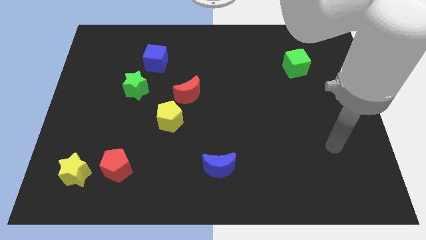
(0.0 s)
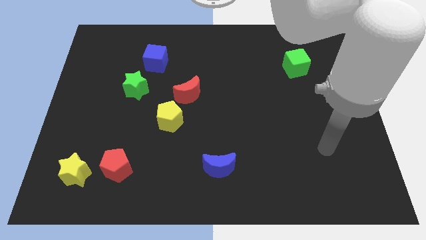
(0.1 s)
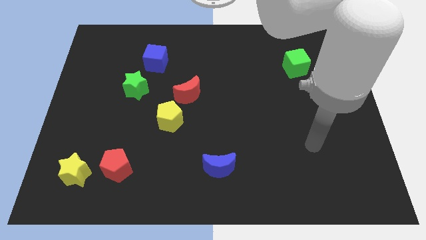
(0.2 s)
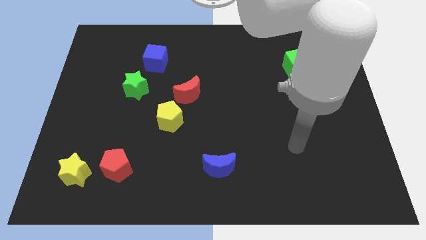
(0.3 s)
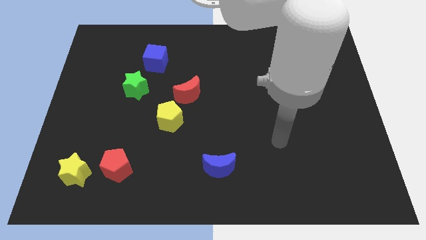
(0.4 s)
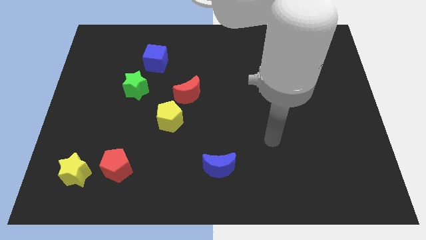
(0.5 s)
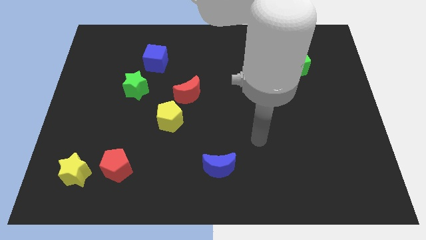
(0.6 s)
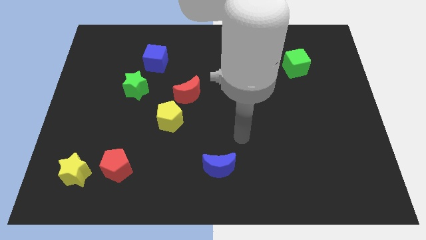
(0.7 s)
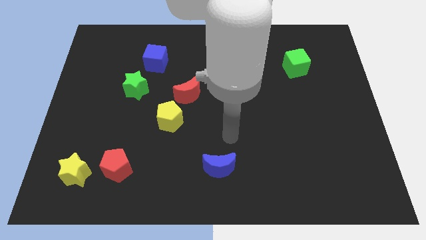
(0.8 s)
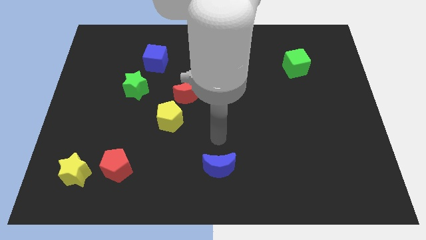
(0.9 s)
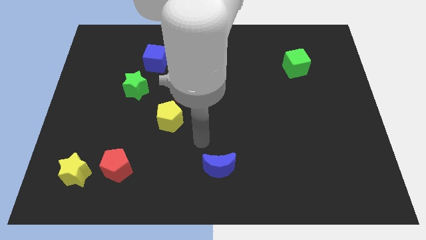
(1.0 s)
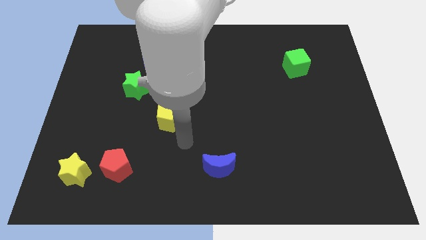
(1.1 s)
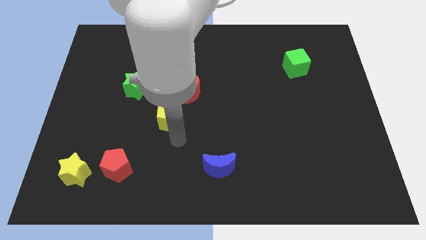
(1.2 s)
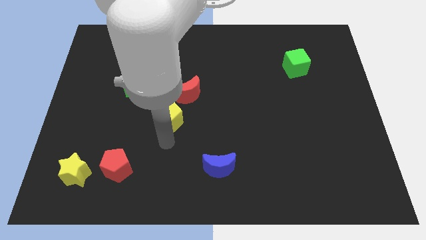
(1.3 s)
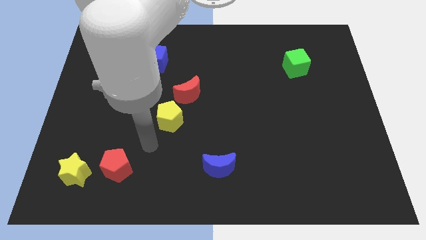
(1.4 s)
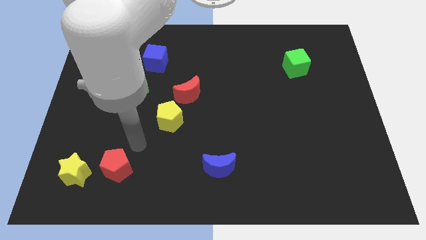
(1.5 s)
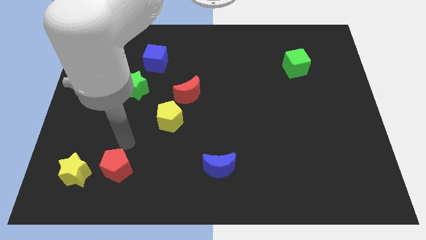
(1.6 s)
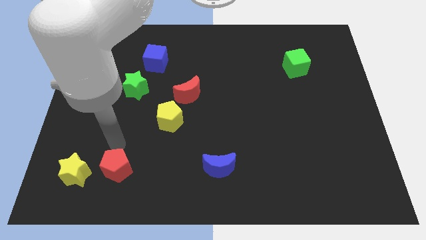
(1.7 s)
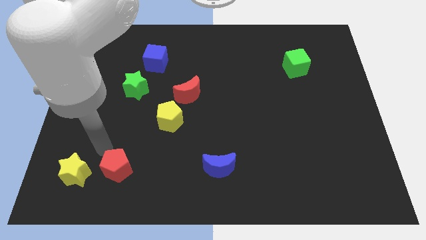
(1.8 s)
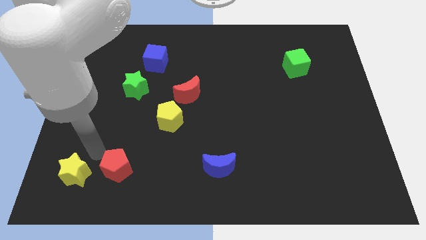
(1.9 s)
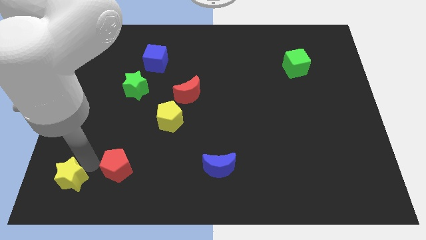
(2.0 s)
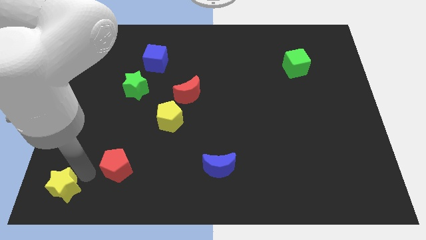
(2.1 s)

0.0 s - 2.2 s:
move the red pentagon away from the yellow star

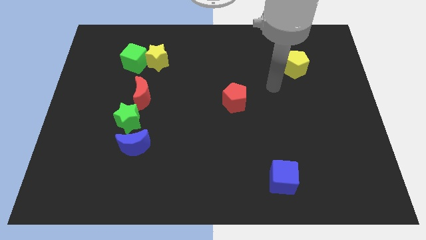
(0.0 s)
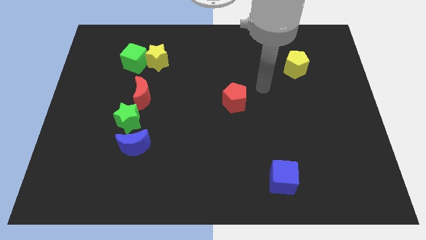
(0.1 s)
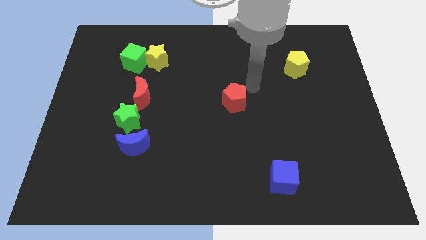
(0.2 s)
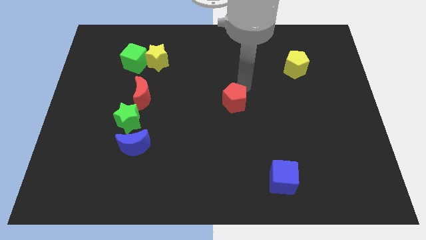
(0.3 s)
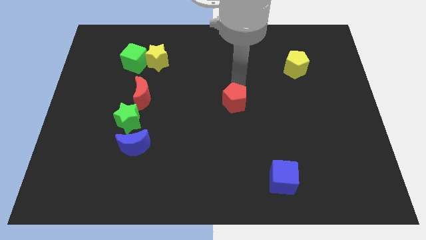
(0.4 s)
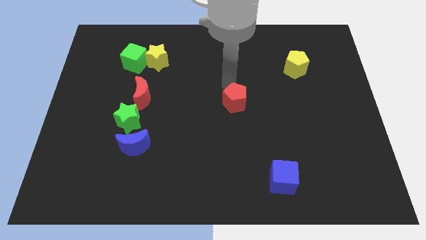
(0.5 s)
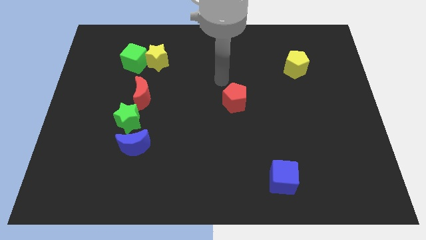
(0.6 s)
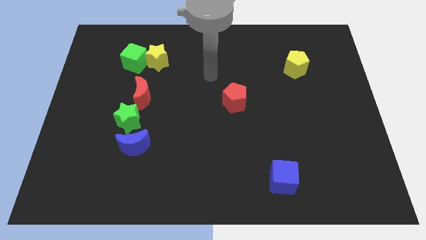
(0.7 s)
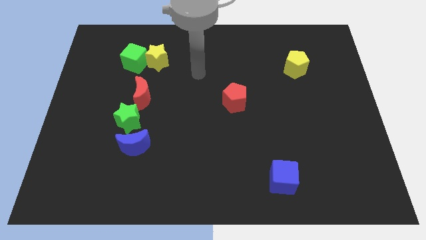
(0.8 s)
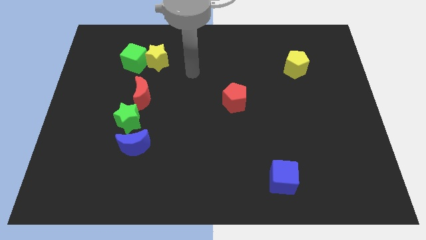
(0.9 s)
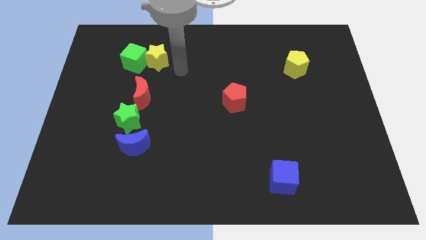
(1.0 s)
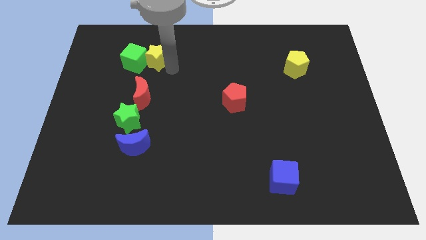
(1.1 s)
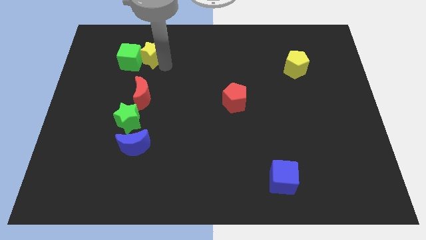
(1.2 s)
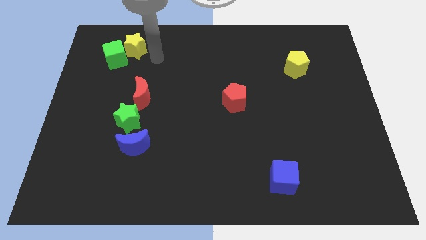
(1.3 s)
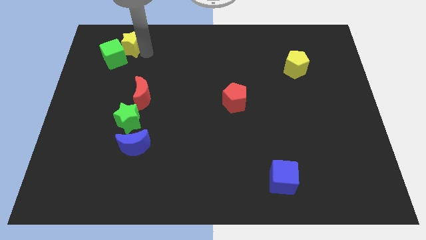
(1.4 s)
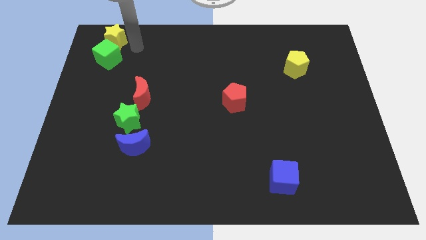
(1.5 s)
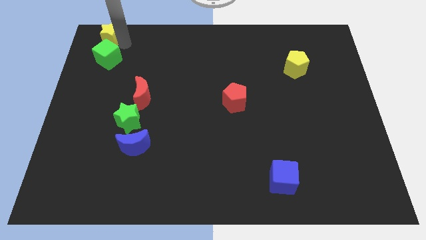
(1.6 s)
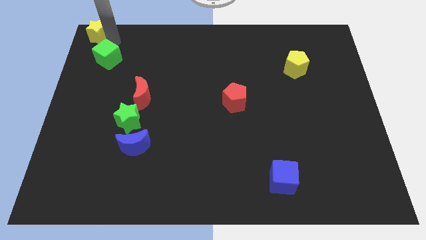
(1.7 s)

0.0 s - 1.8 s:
move the green cube away from the yellow star

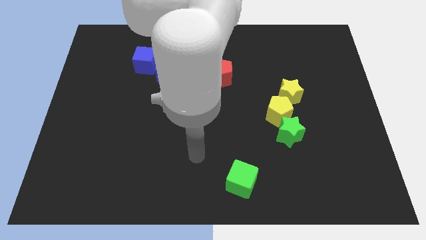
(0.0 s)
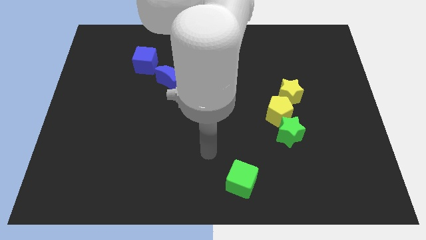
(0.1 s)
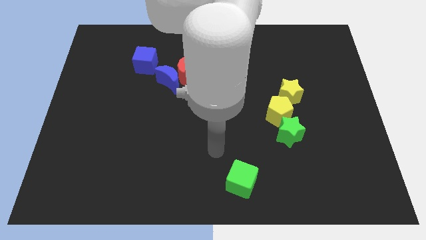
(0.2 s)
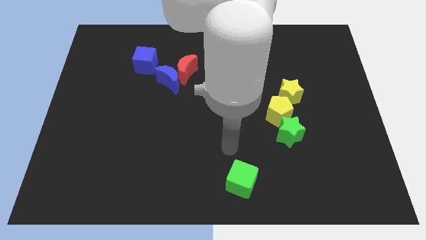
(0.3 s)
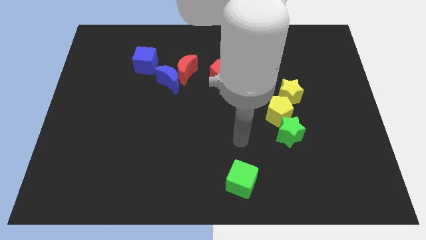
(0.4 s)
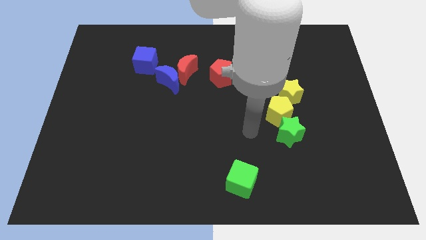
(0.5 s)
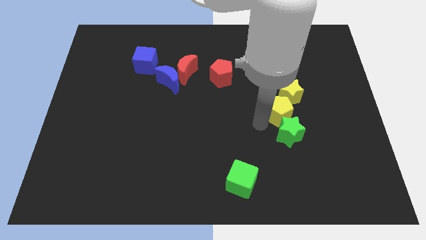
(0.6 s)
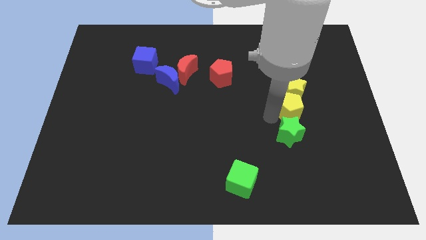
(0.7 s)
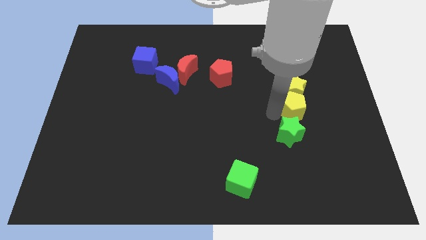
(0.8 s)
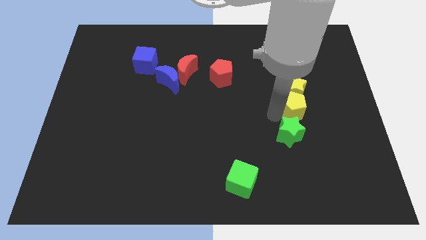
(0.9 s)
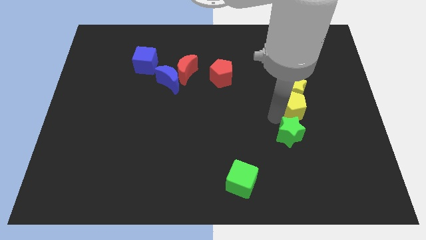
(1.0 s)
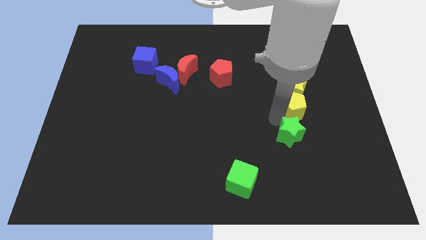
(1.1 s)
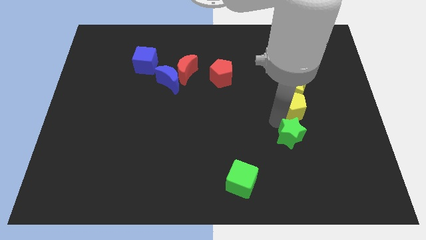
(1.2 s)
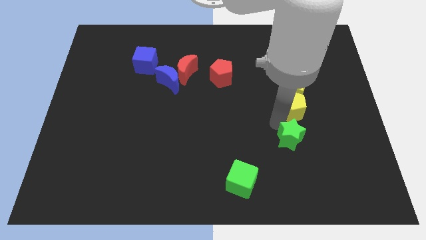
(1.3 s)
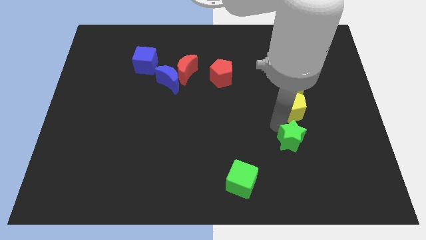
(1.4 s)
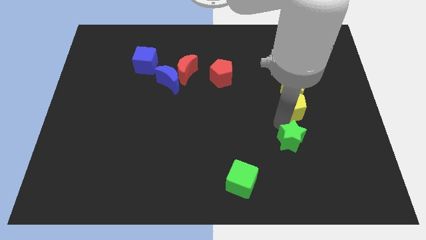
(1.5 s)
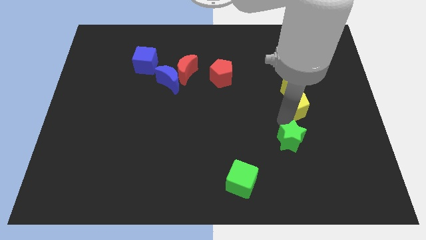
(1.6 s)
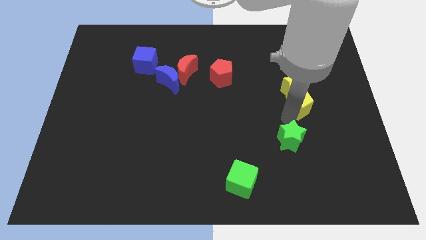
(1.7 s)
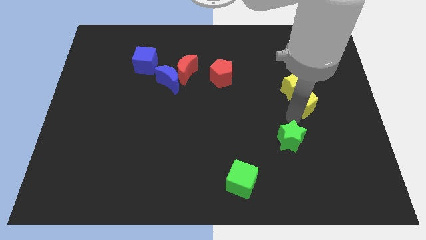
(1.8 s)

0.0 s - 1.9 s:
separate the green star from the yellow pentagon

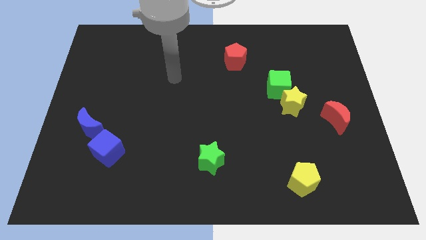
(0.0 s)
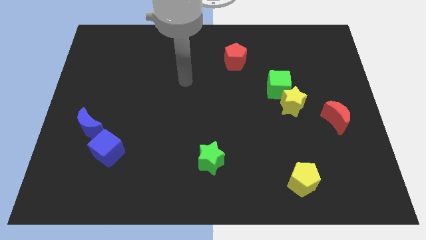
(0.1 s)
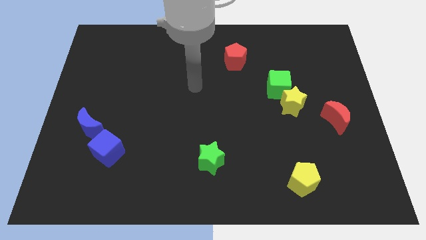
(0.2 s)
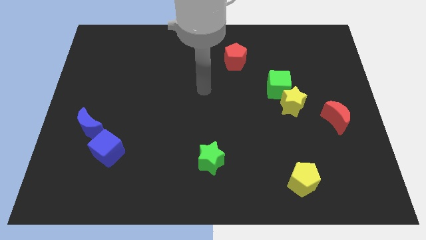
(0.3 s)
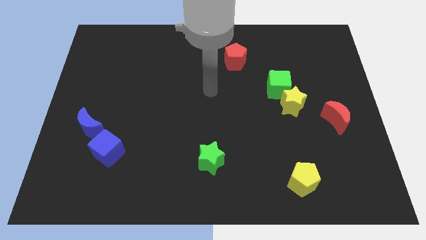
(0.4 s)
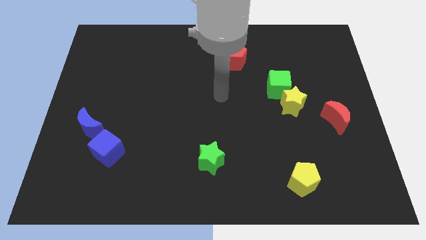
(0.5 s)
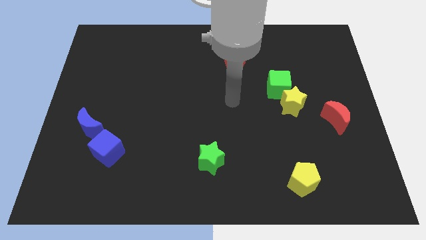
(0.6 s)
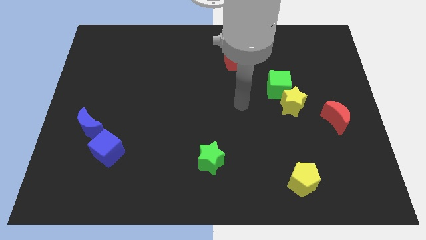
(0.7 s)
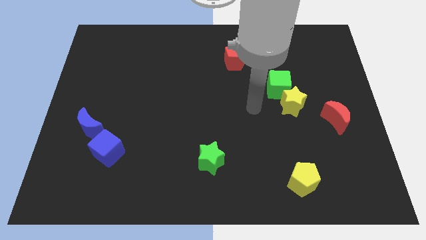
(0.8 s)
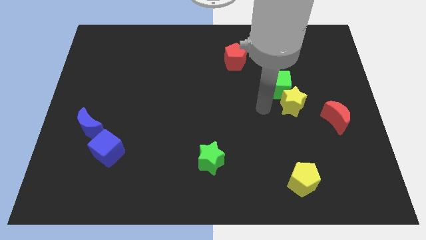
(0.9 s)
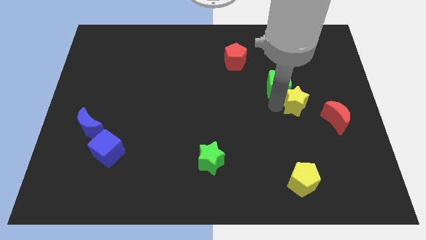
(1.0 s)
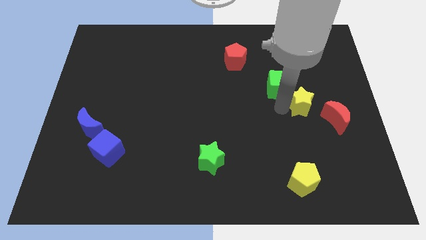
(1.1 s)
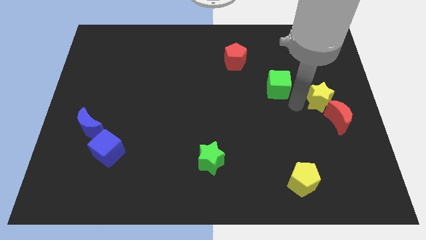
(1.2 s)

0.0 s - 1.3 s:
separate the green cube from the yellow star

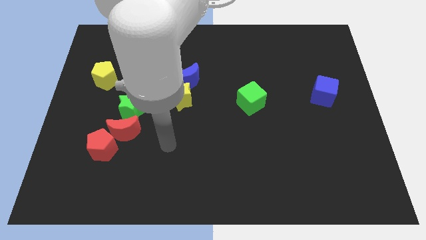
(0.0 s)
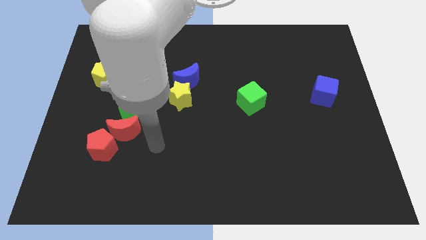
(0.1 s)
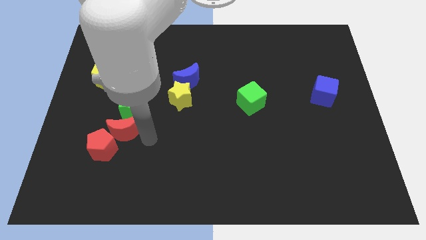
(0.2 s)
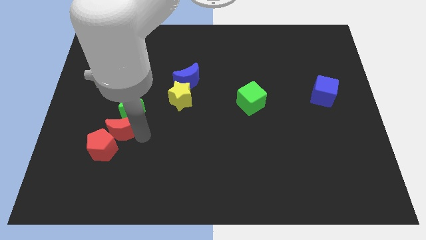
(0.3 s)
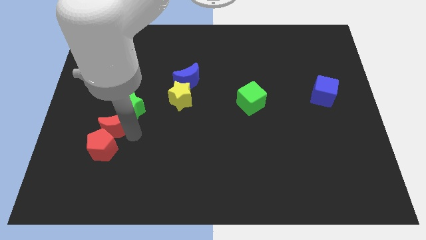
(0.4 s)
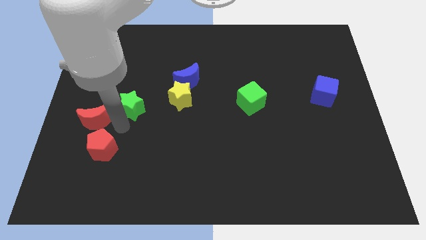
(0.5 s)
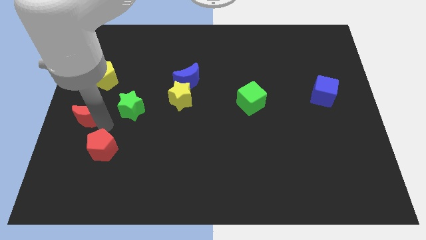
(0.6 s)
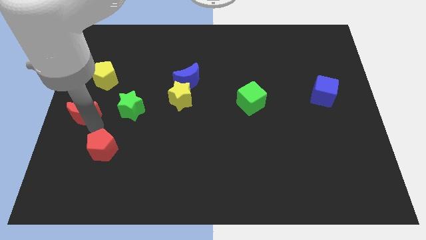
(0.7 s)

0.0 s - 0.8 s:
move the red pentagon away from the red moon

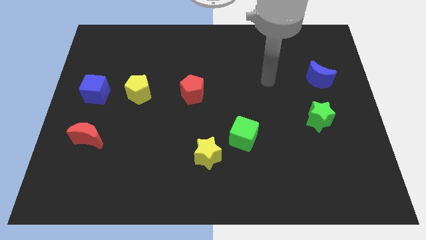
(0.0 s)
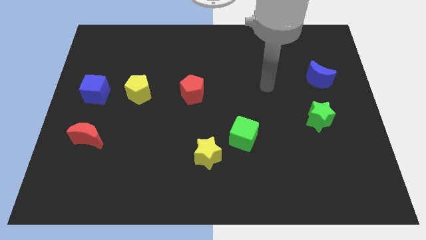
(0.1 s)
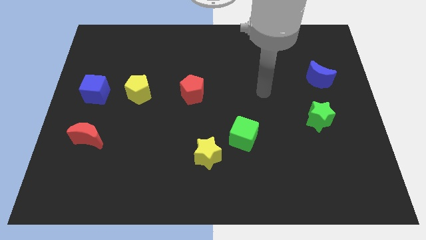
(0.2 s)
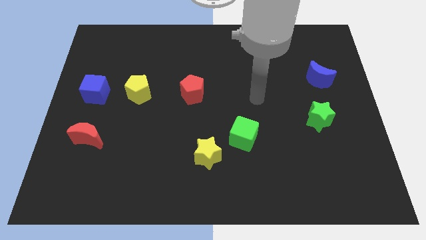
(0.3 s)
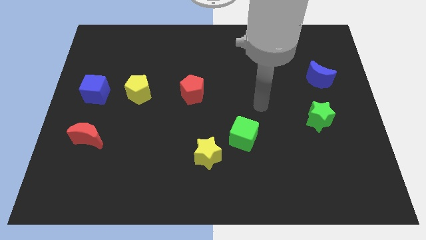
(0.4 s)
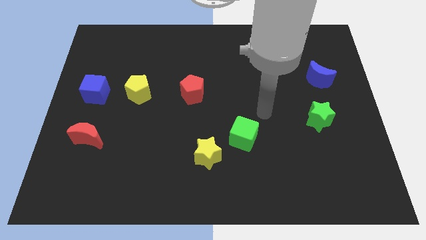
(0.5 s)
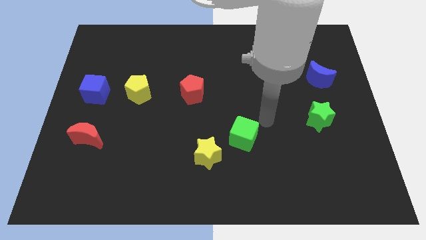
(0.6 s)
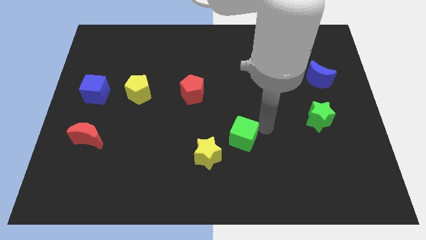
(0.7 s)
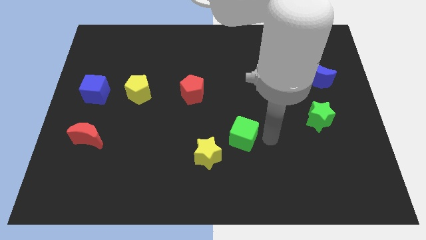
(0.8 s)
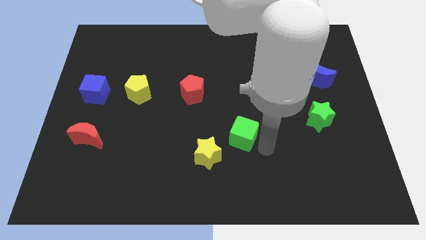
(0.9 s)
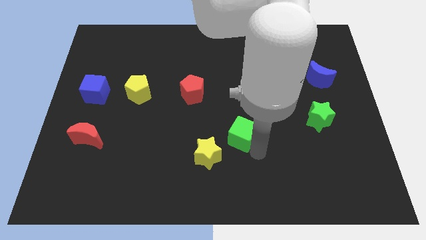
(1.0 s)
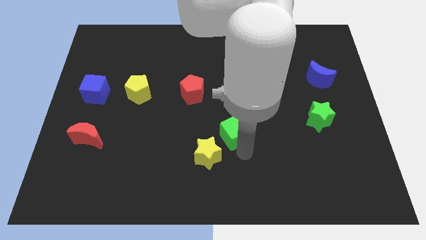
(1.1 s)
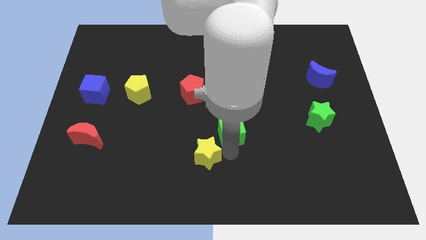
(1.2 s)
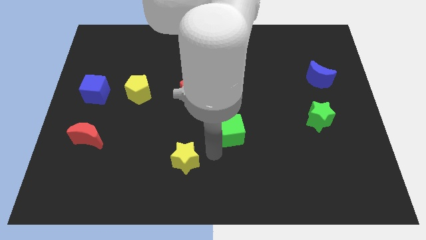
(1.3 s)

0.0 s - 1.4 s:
pull the green cube apart from the yellow star
